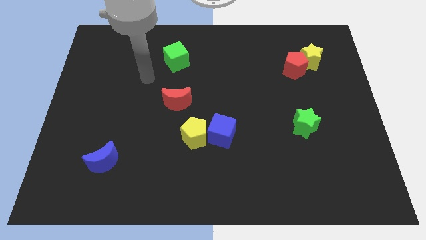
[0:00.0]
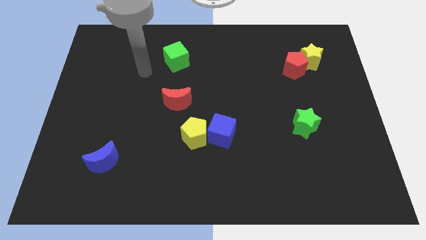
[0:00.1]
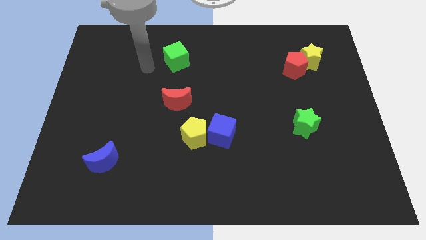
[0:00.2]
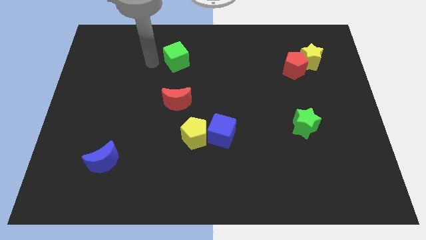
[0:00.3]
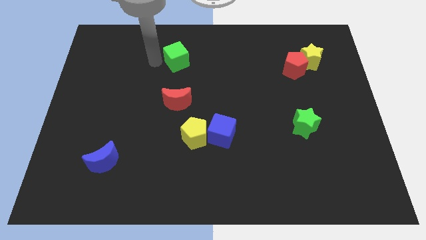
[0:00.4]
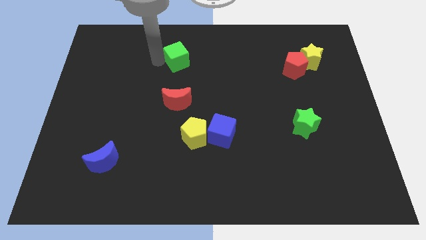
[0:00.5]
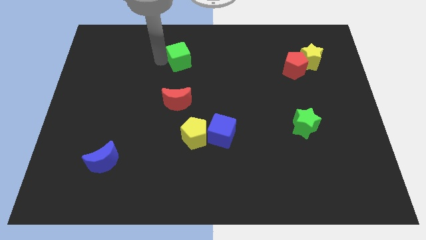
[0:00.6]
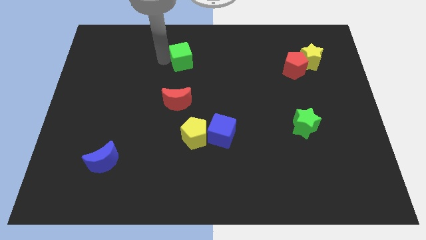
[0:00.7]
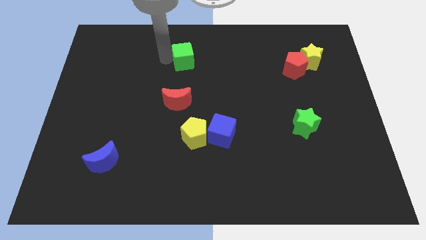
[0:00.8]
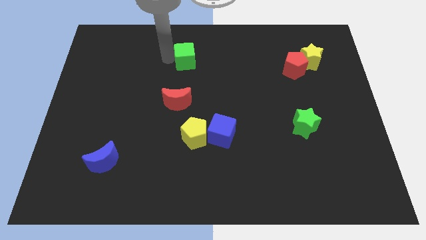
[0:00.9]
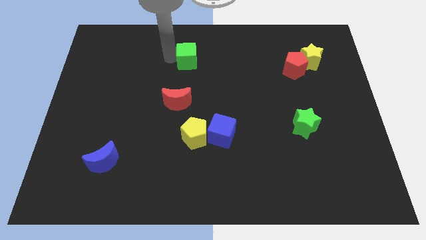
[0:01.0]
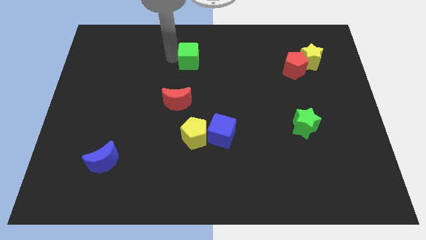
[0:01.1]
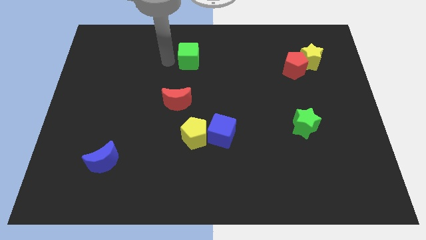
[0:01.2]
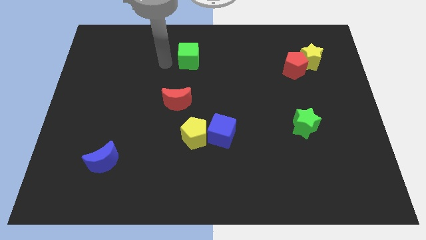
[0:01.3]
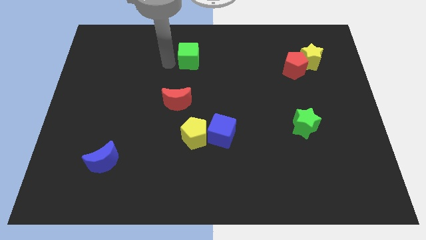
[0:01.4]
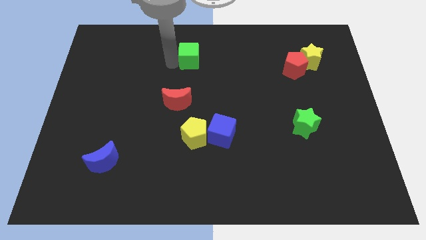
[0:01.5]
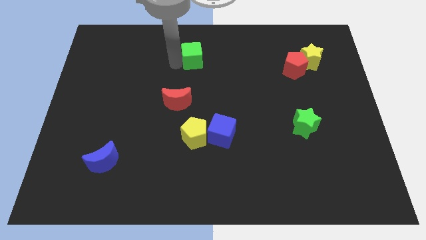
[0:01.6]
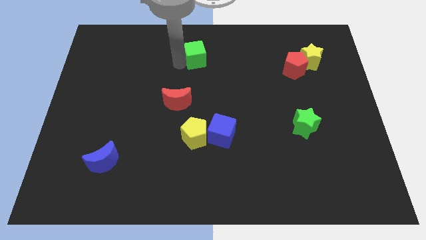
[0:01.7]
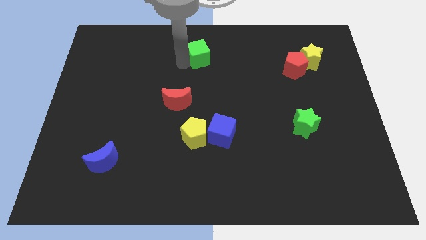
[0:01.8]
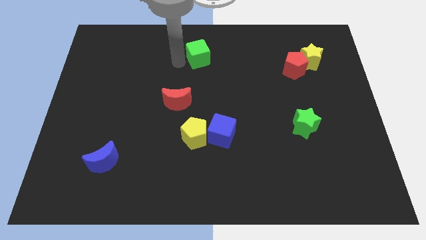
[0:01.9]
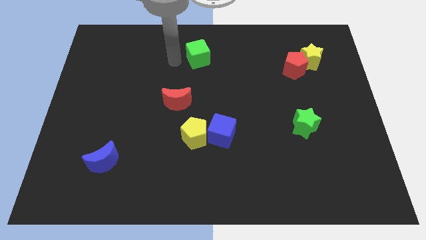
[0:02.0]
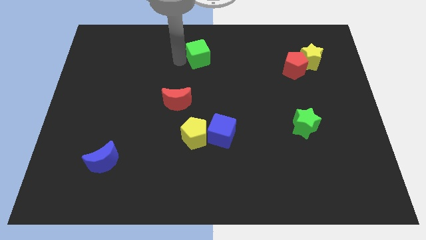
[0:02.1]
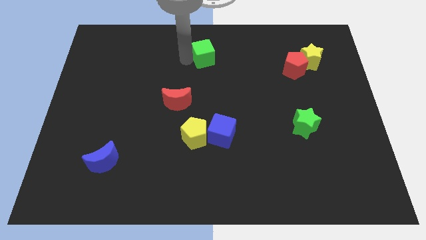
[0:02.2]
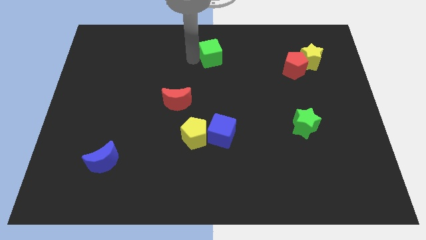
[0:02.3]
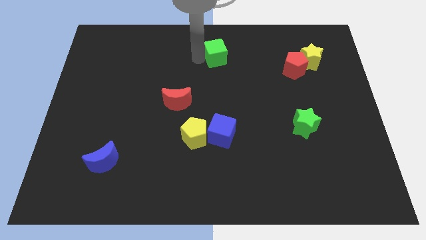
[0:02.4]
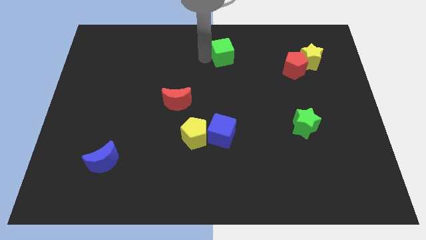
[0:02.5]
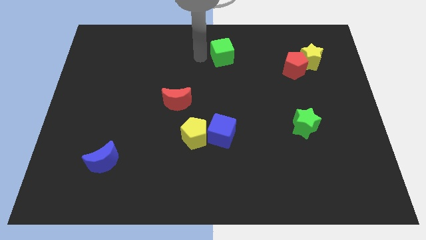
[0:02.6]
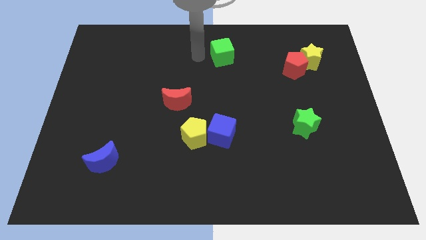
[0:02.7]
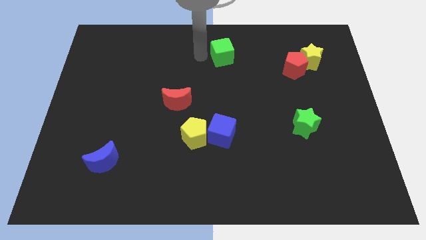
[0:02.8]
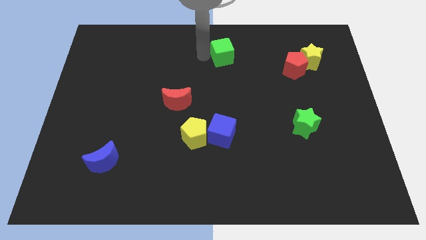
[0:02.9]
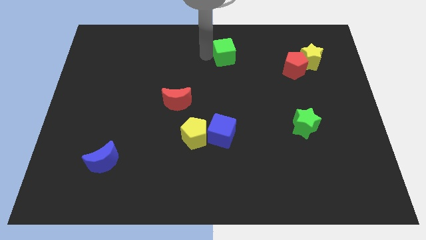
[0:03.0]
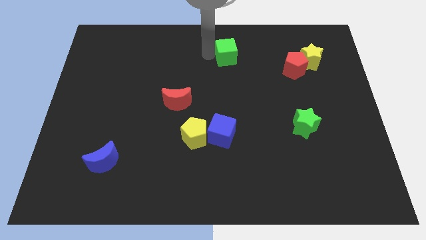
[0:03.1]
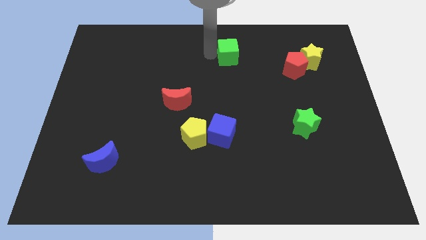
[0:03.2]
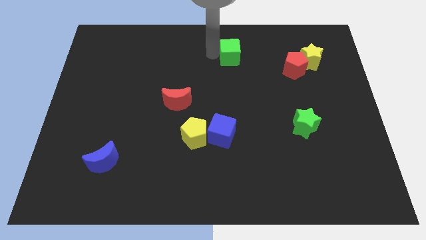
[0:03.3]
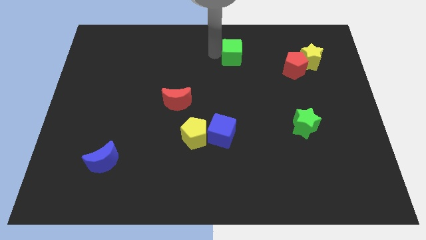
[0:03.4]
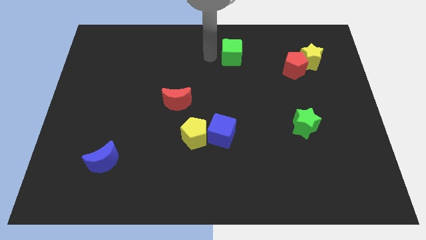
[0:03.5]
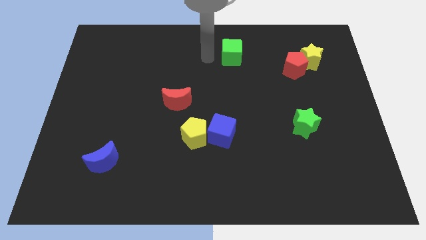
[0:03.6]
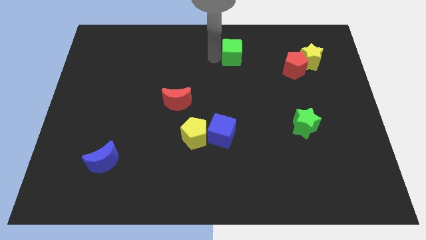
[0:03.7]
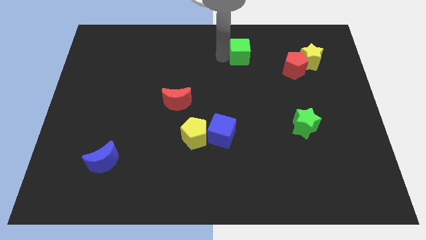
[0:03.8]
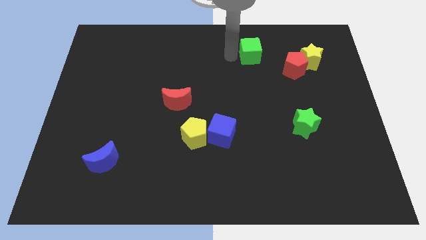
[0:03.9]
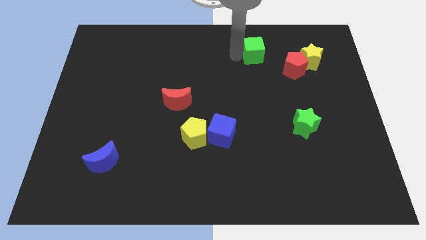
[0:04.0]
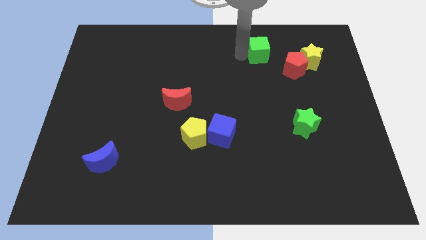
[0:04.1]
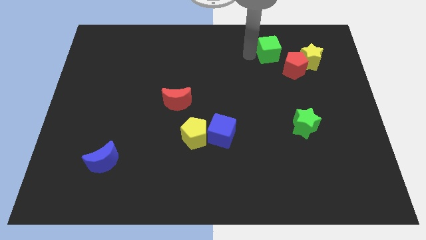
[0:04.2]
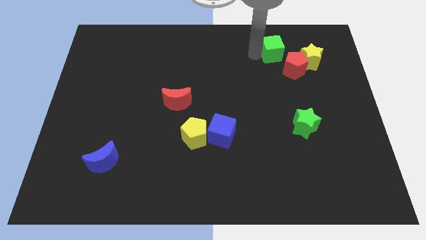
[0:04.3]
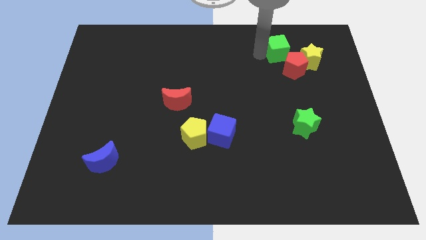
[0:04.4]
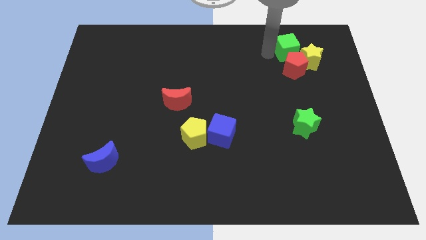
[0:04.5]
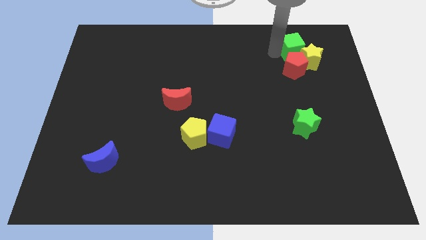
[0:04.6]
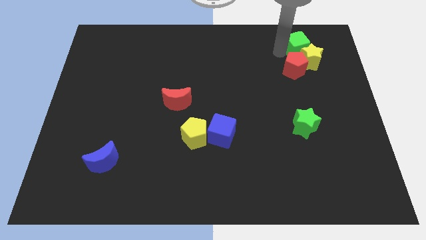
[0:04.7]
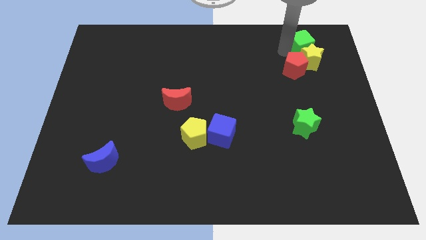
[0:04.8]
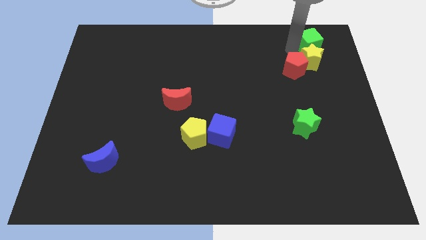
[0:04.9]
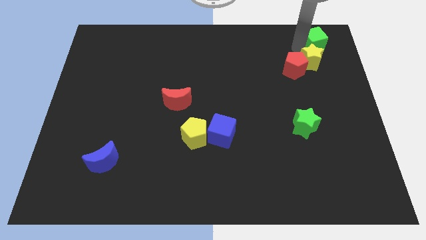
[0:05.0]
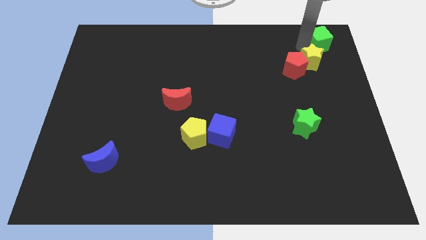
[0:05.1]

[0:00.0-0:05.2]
slide the green cube to the top right of the board

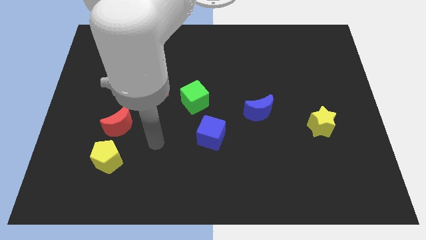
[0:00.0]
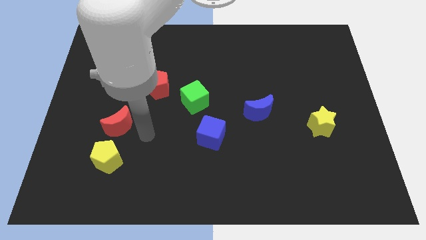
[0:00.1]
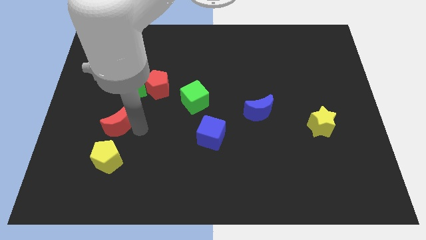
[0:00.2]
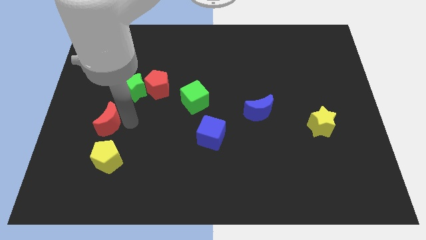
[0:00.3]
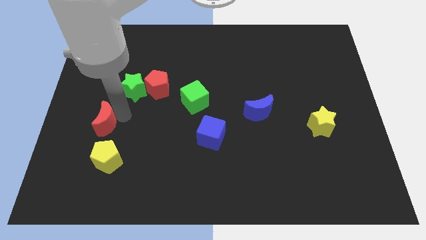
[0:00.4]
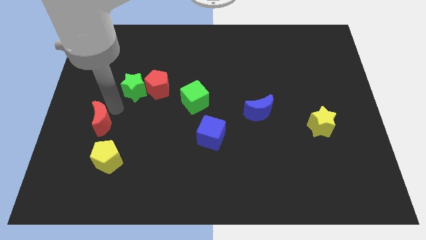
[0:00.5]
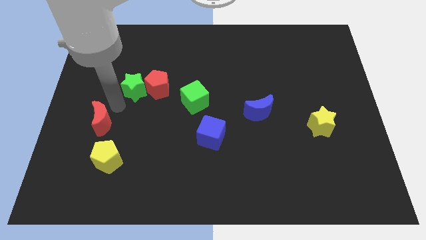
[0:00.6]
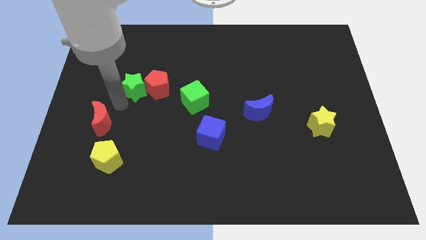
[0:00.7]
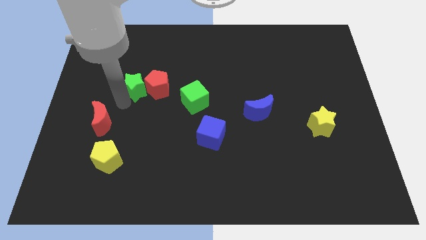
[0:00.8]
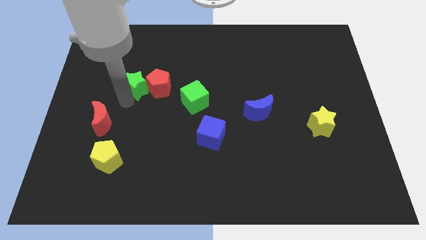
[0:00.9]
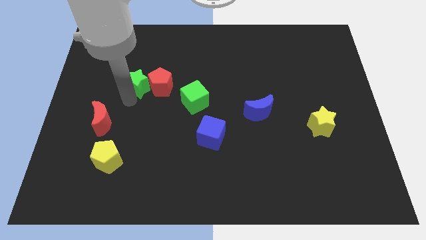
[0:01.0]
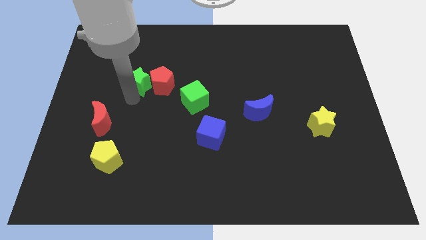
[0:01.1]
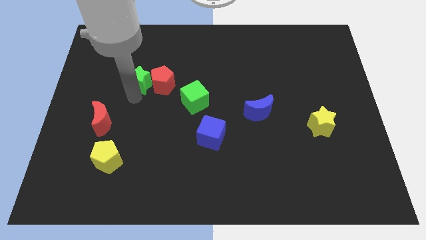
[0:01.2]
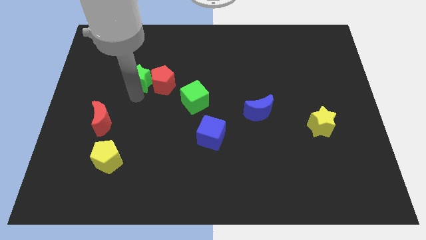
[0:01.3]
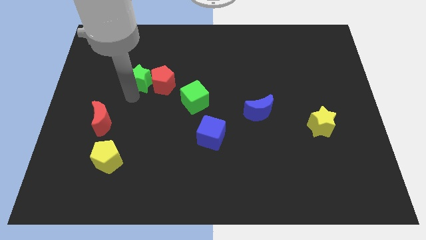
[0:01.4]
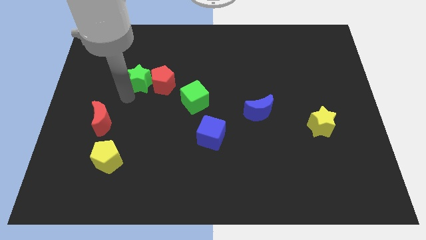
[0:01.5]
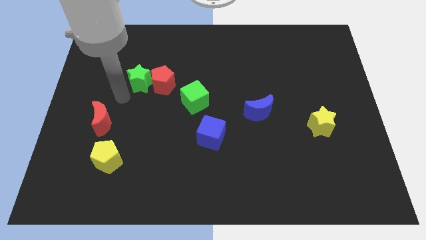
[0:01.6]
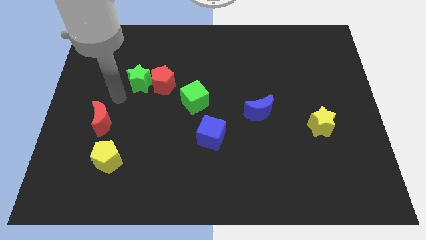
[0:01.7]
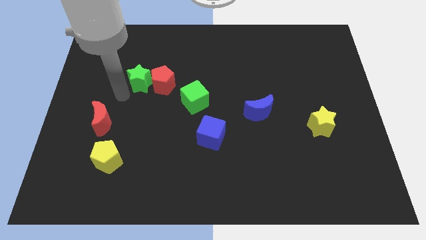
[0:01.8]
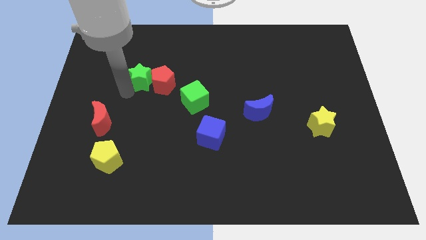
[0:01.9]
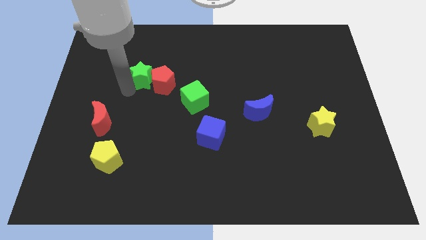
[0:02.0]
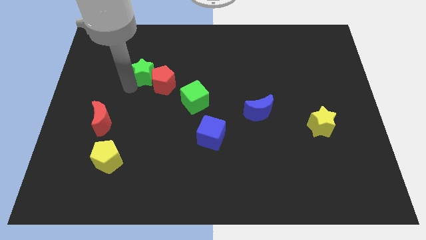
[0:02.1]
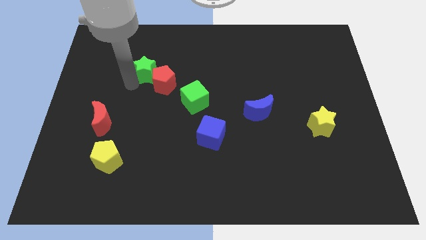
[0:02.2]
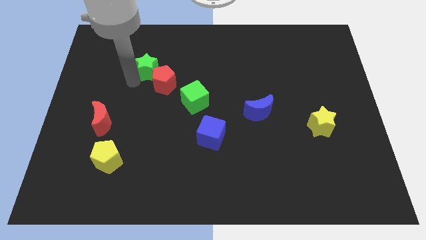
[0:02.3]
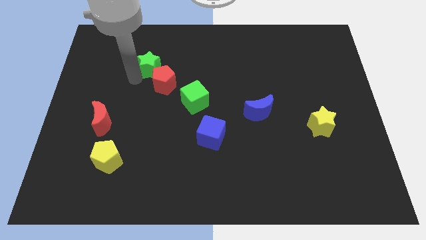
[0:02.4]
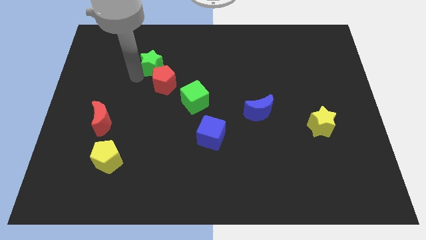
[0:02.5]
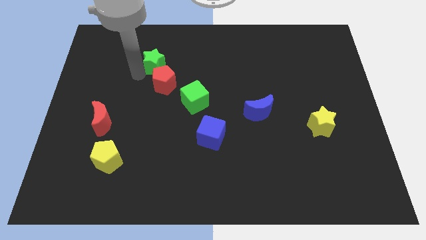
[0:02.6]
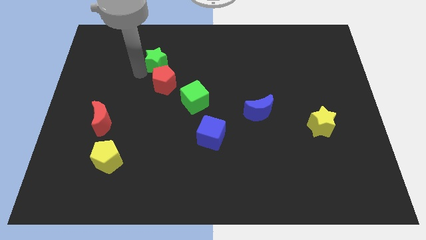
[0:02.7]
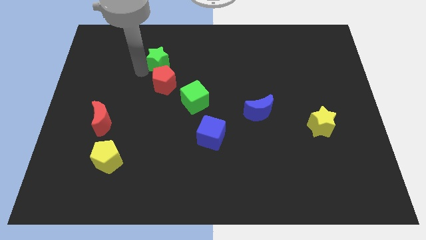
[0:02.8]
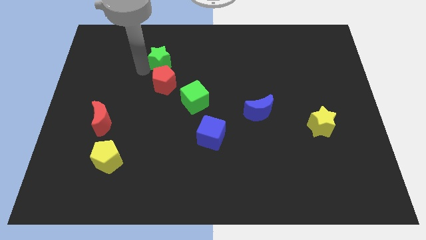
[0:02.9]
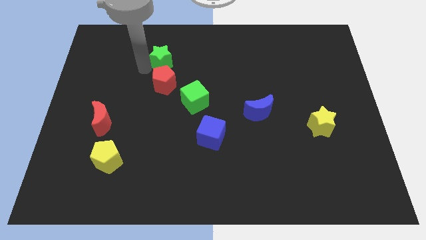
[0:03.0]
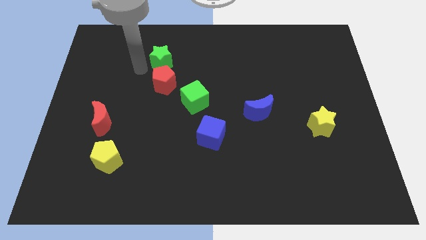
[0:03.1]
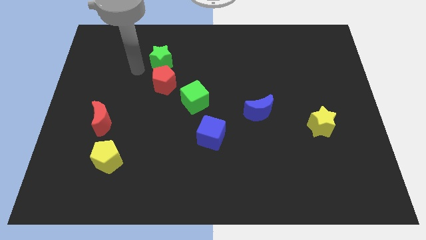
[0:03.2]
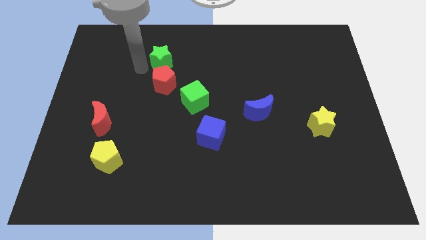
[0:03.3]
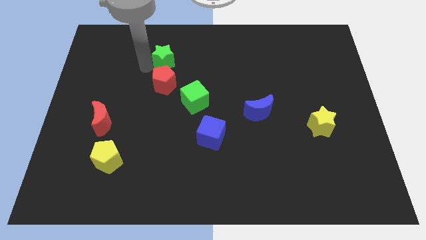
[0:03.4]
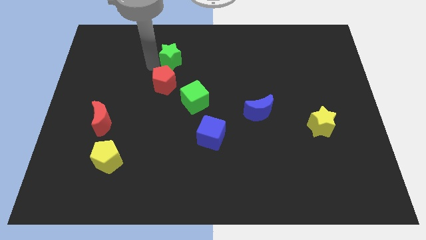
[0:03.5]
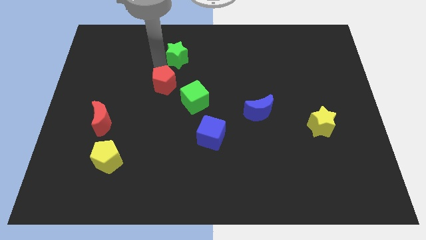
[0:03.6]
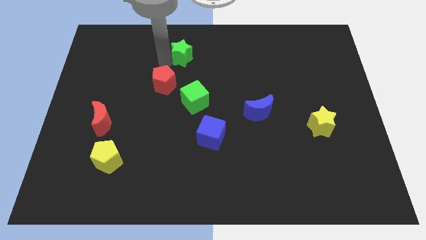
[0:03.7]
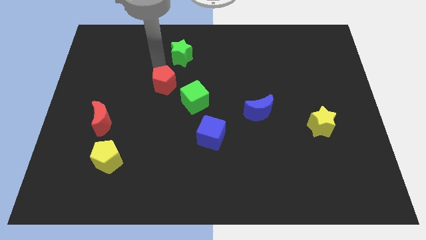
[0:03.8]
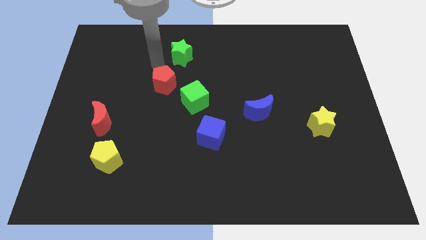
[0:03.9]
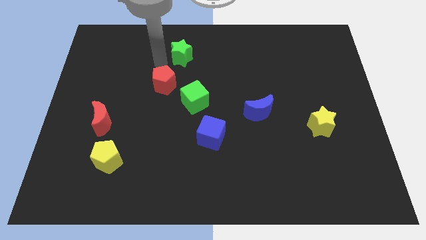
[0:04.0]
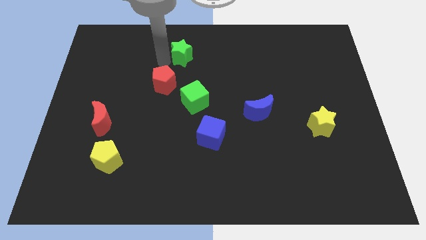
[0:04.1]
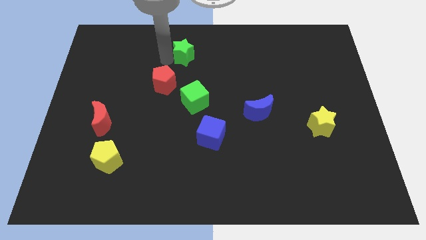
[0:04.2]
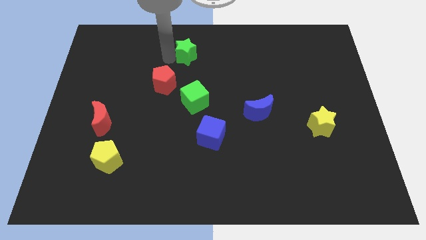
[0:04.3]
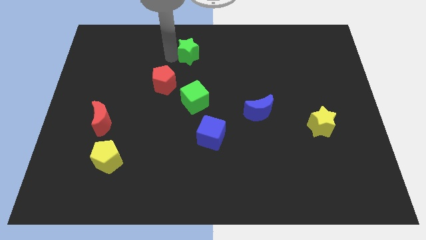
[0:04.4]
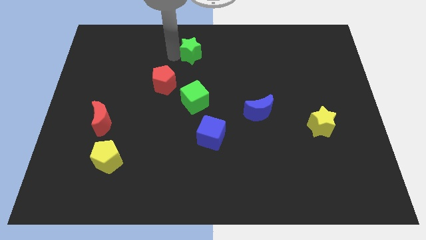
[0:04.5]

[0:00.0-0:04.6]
move the green star to the top side
